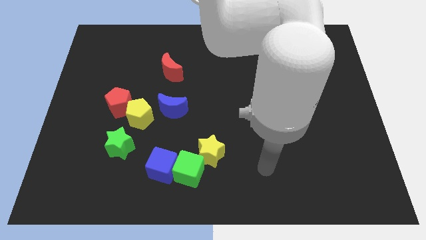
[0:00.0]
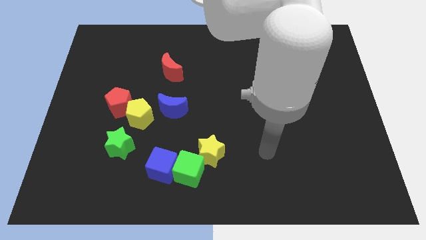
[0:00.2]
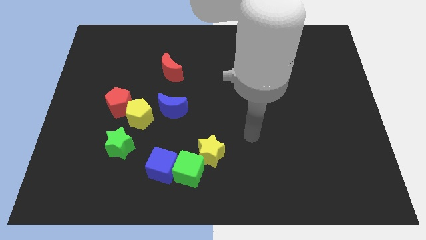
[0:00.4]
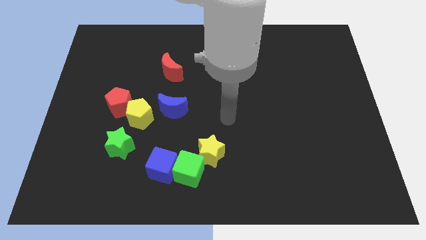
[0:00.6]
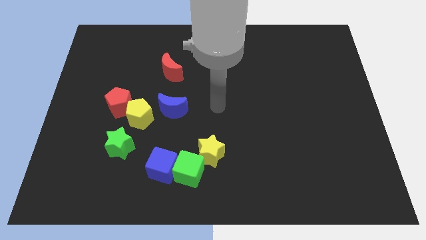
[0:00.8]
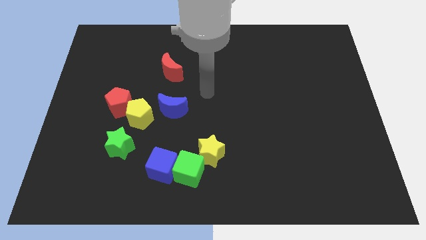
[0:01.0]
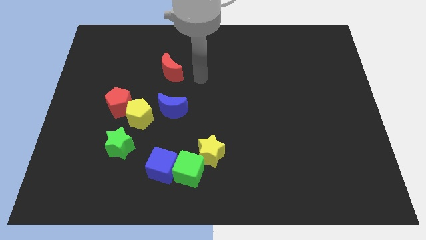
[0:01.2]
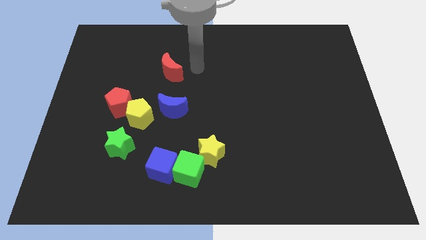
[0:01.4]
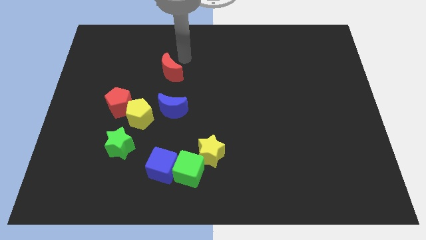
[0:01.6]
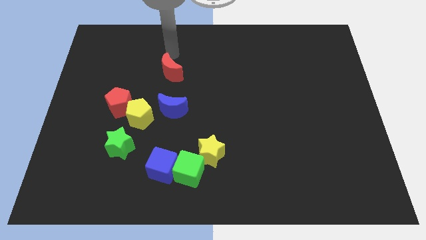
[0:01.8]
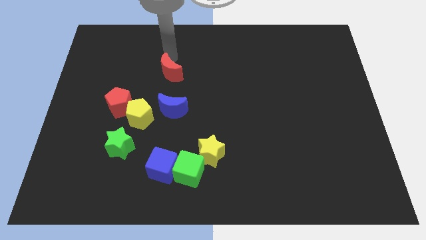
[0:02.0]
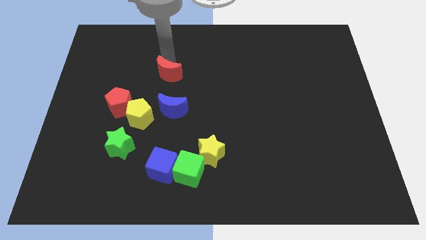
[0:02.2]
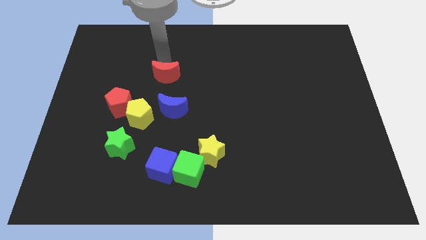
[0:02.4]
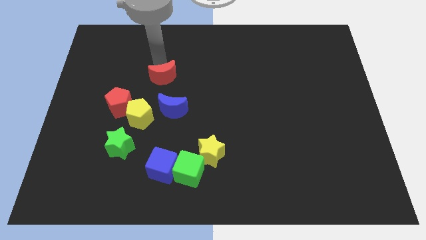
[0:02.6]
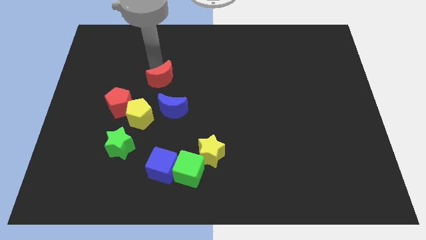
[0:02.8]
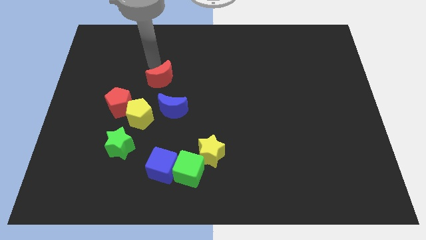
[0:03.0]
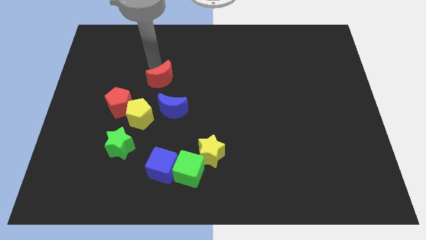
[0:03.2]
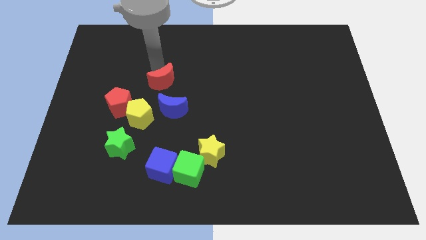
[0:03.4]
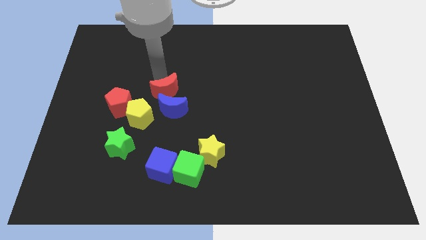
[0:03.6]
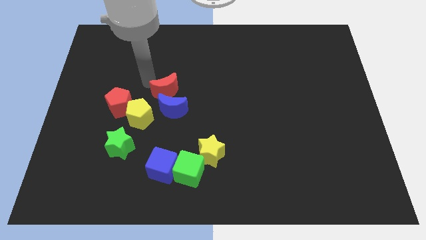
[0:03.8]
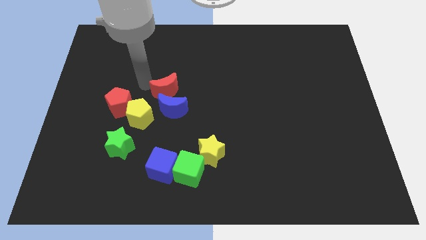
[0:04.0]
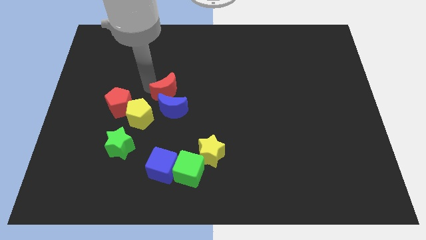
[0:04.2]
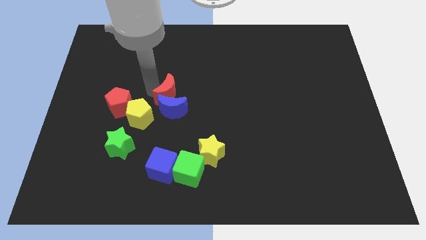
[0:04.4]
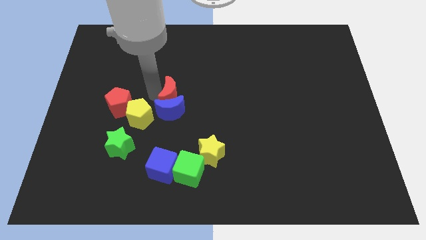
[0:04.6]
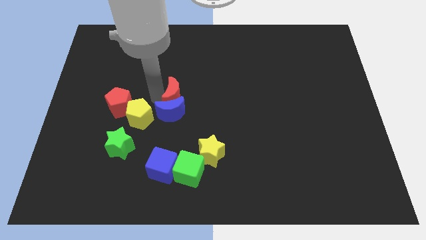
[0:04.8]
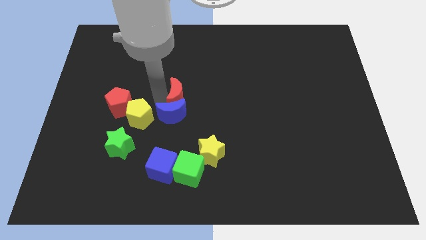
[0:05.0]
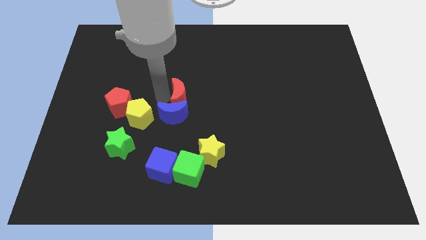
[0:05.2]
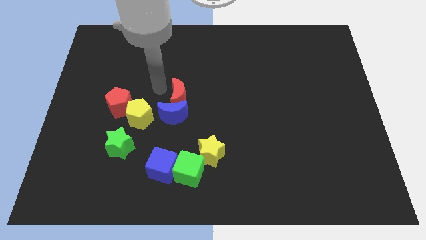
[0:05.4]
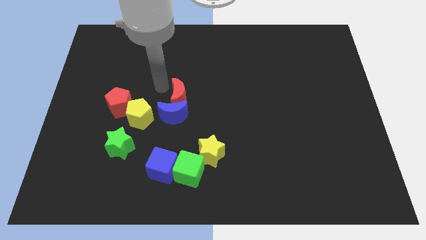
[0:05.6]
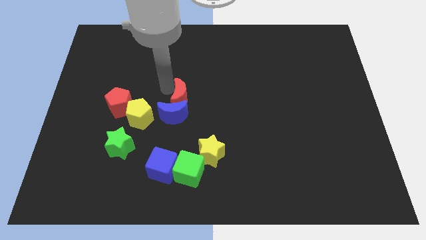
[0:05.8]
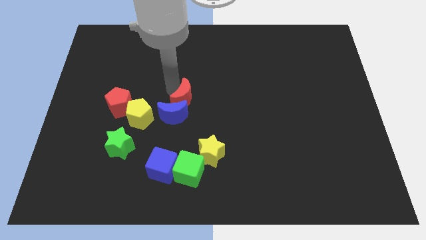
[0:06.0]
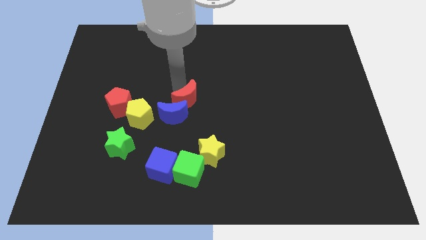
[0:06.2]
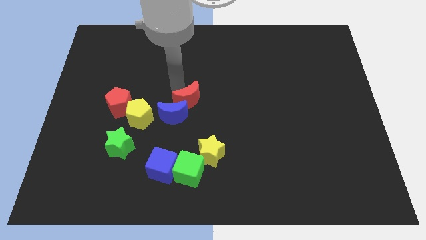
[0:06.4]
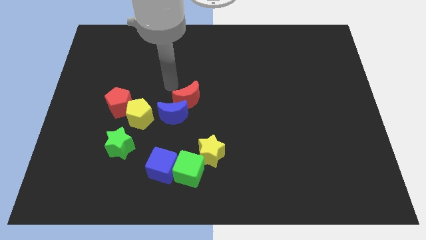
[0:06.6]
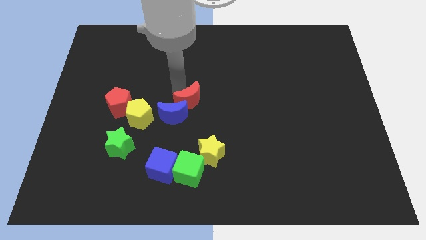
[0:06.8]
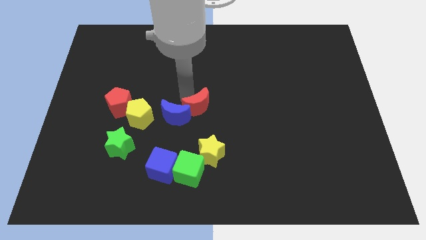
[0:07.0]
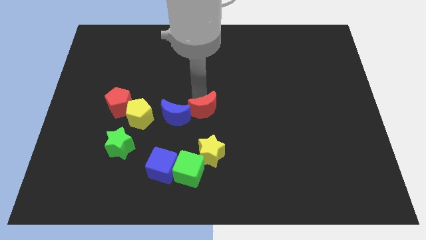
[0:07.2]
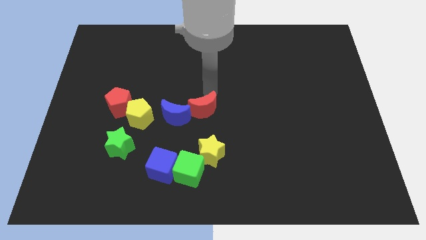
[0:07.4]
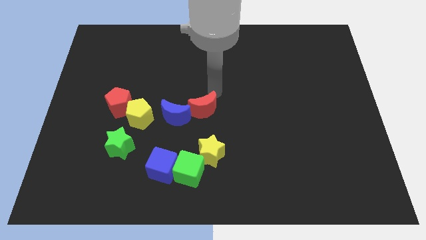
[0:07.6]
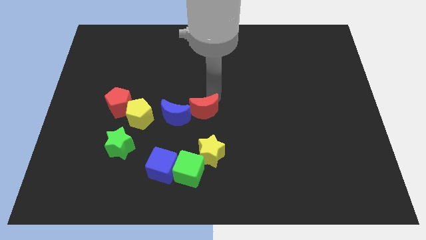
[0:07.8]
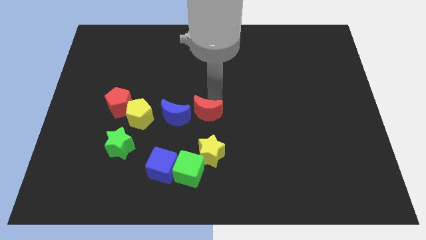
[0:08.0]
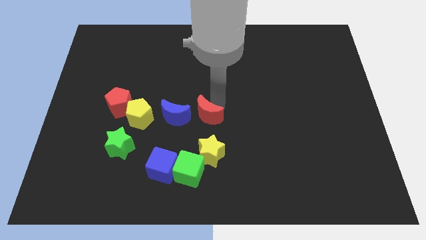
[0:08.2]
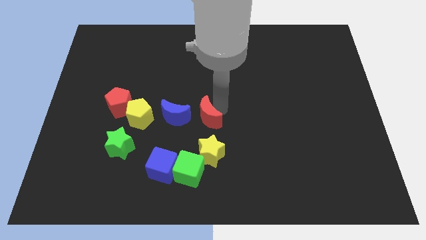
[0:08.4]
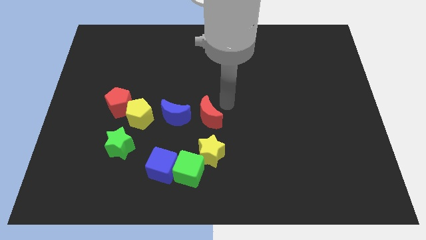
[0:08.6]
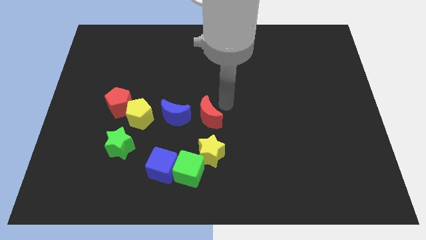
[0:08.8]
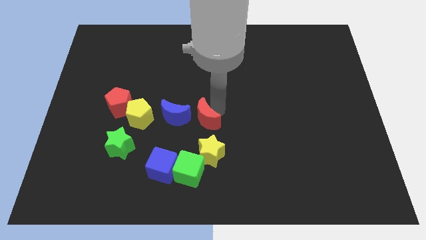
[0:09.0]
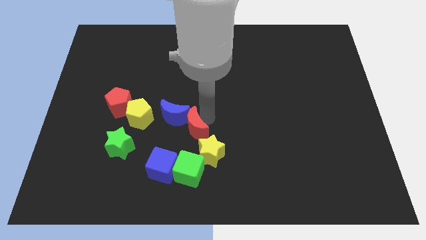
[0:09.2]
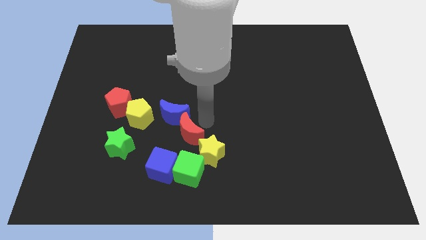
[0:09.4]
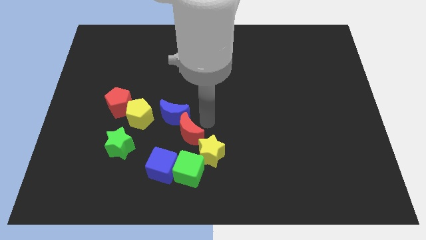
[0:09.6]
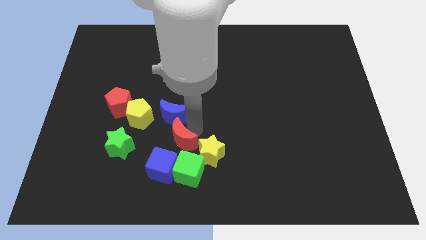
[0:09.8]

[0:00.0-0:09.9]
put the red moon to the top left of the green cube

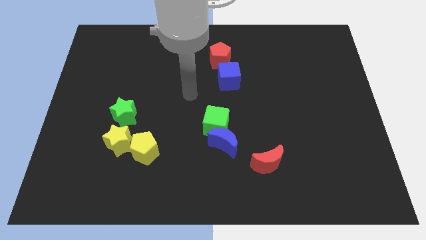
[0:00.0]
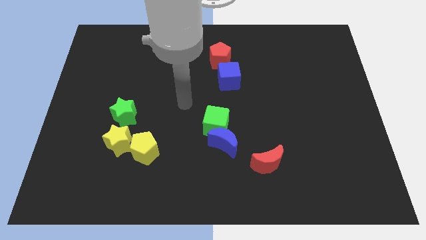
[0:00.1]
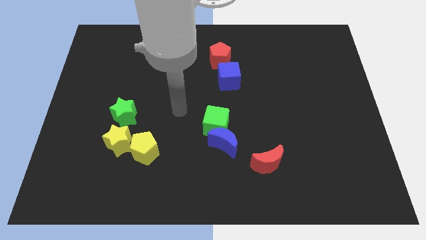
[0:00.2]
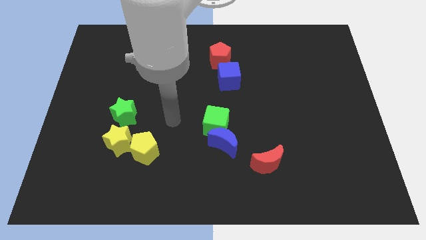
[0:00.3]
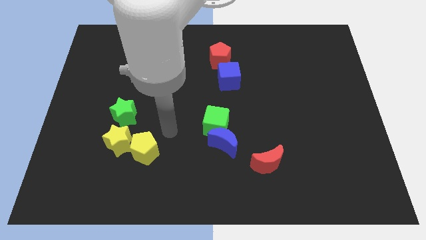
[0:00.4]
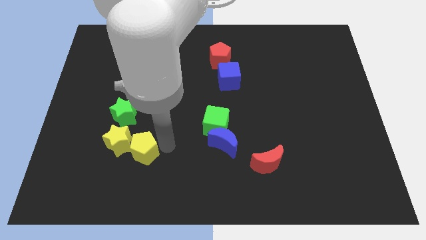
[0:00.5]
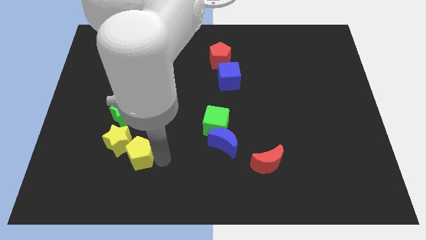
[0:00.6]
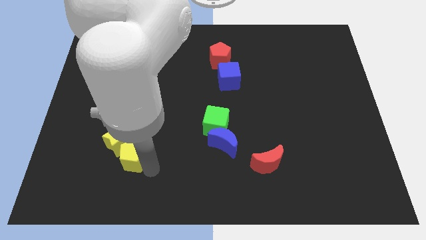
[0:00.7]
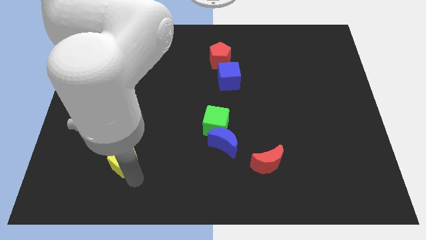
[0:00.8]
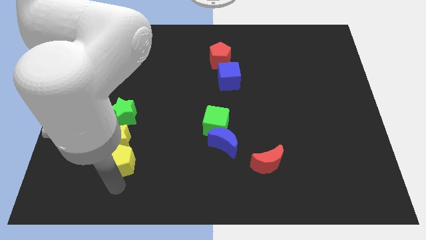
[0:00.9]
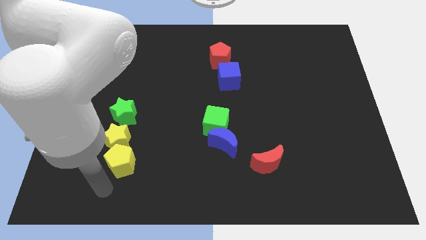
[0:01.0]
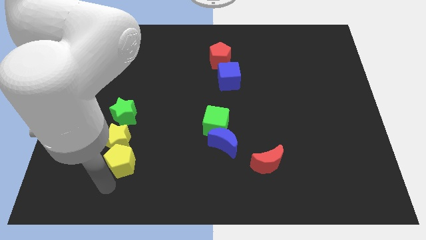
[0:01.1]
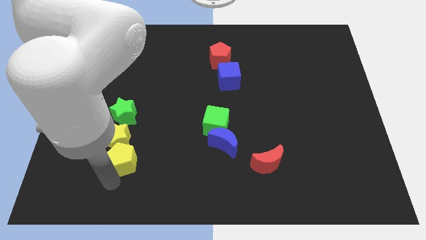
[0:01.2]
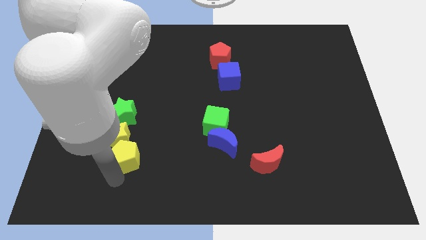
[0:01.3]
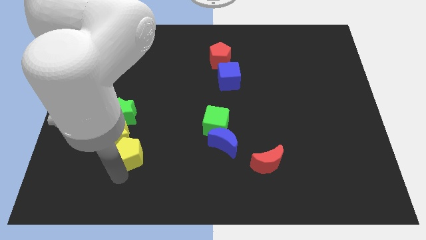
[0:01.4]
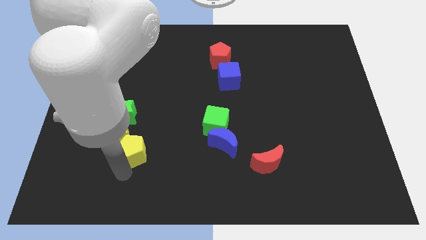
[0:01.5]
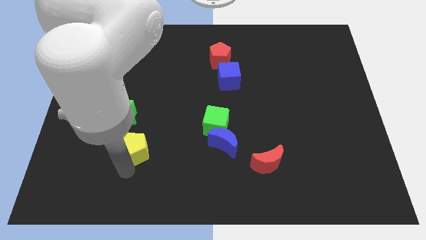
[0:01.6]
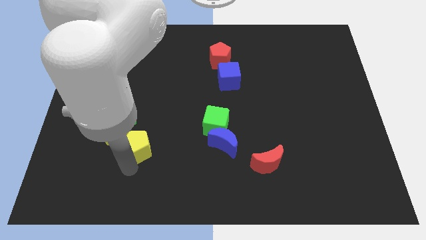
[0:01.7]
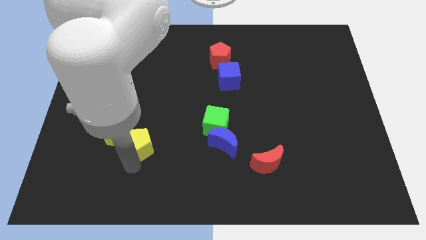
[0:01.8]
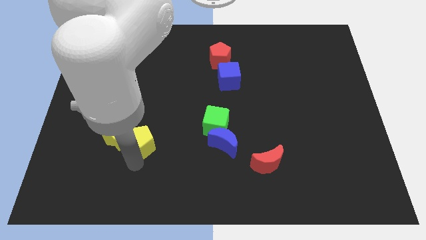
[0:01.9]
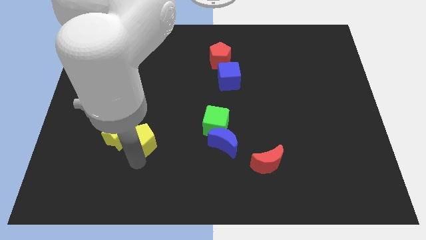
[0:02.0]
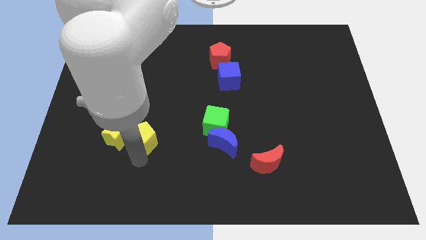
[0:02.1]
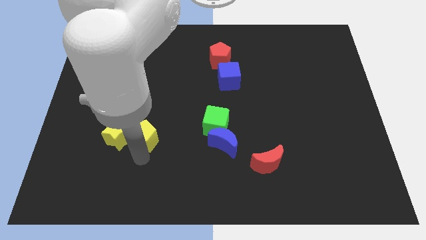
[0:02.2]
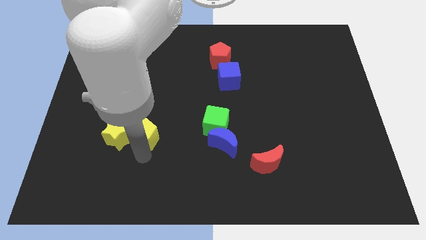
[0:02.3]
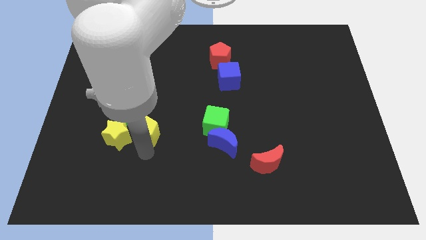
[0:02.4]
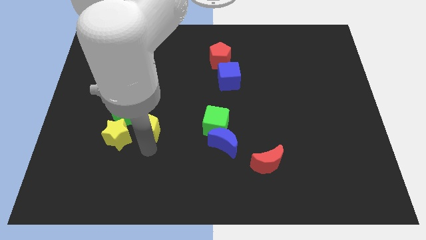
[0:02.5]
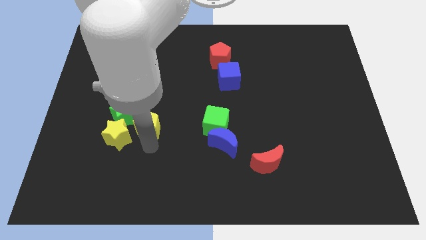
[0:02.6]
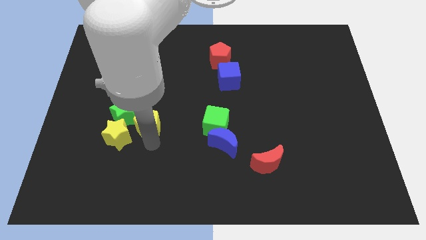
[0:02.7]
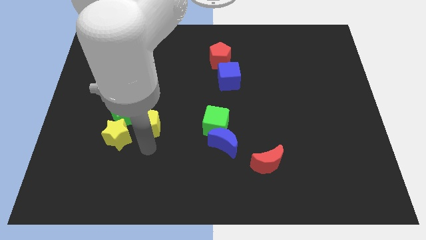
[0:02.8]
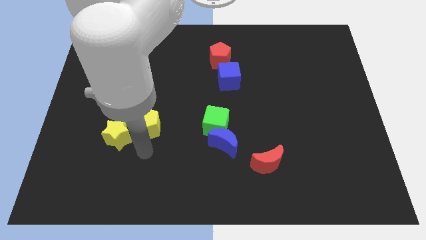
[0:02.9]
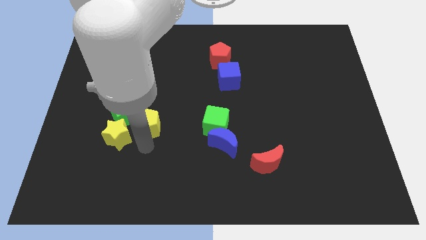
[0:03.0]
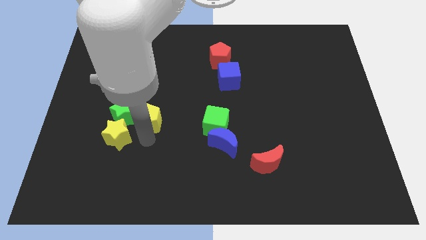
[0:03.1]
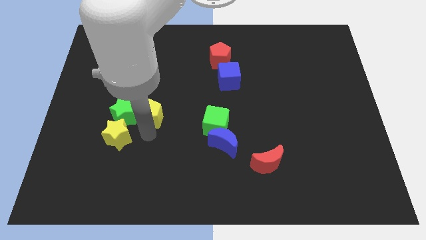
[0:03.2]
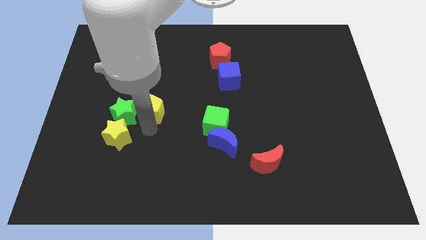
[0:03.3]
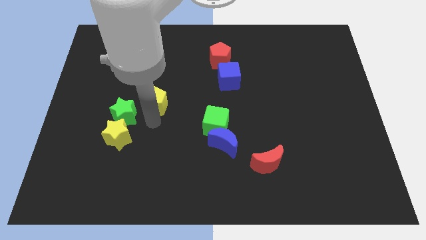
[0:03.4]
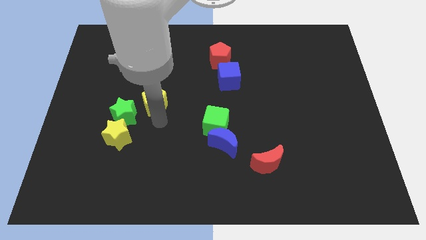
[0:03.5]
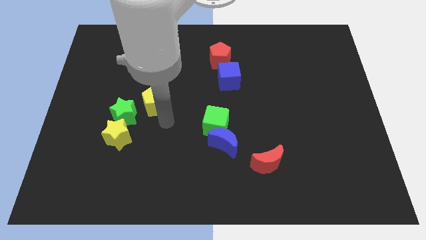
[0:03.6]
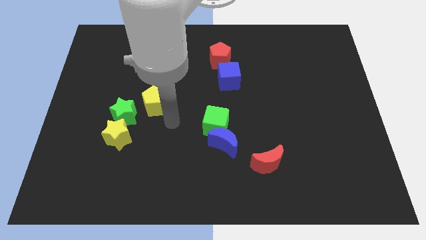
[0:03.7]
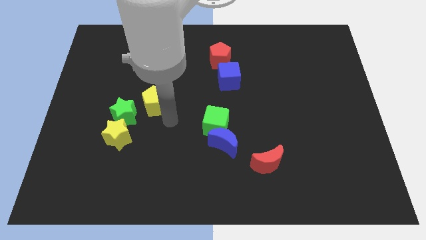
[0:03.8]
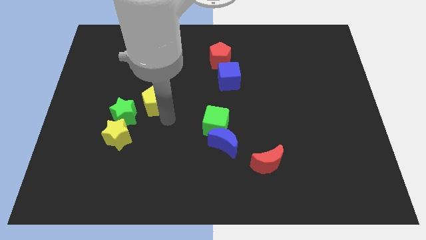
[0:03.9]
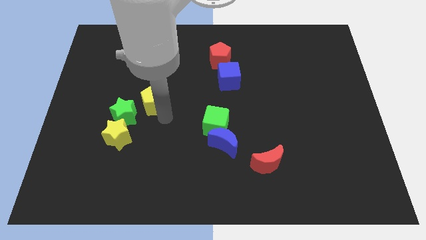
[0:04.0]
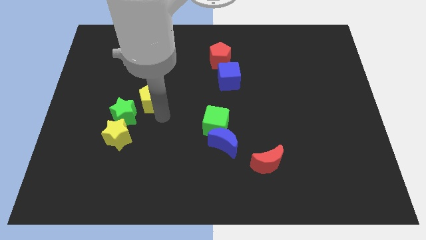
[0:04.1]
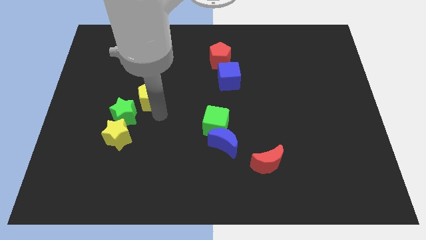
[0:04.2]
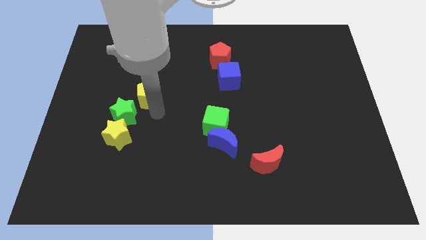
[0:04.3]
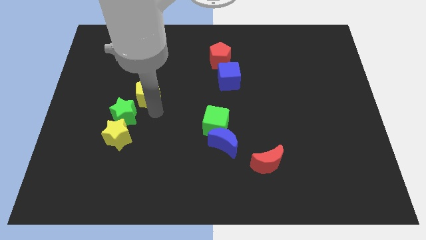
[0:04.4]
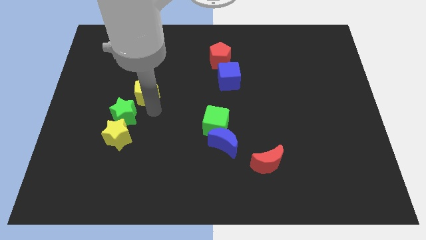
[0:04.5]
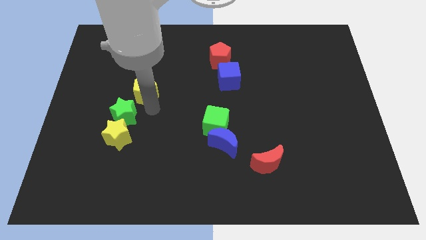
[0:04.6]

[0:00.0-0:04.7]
put the yellow pentagon to the top side of the yellow star
